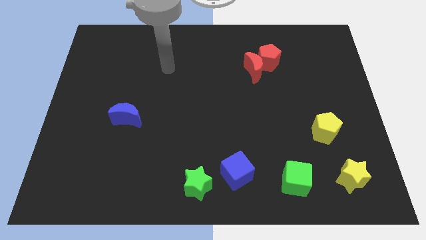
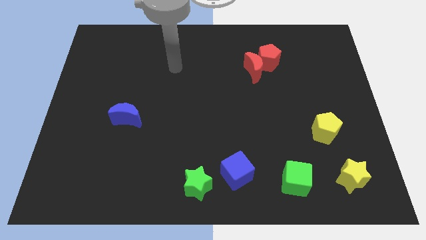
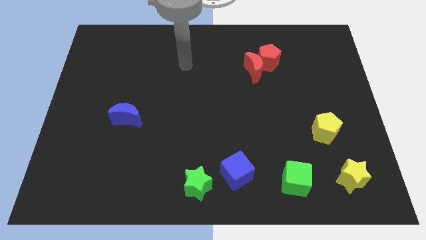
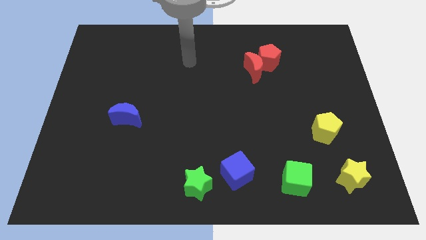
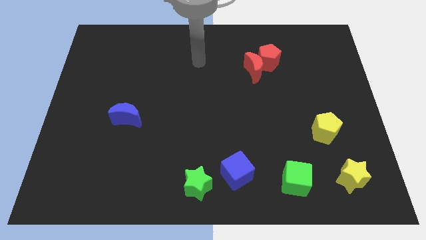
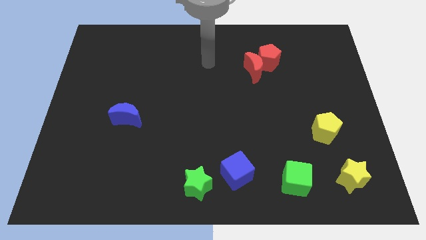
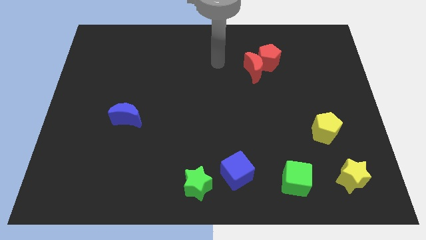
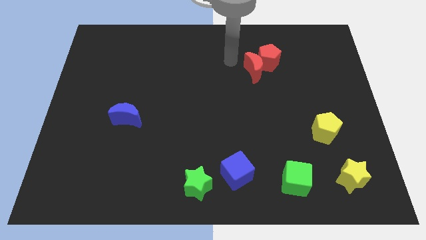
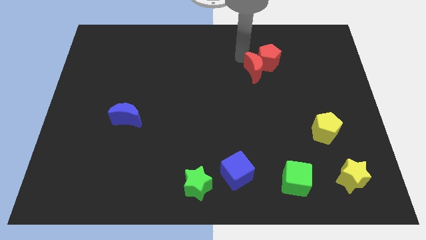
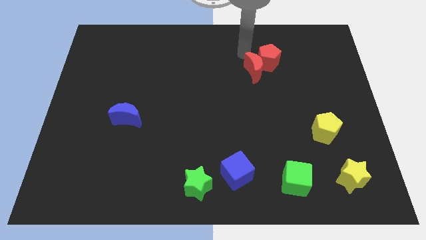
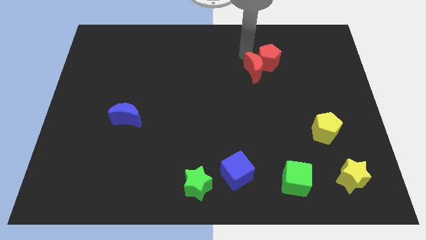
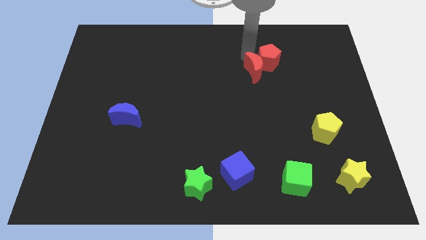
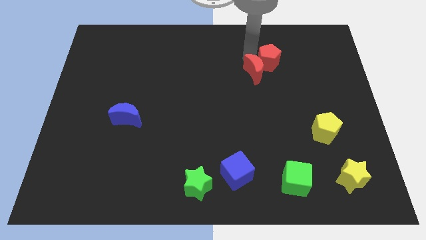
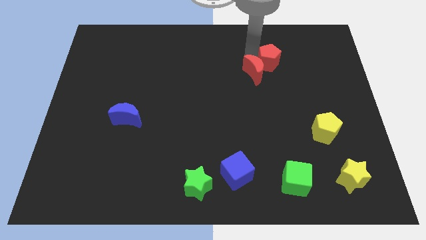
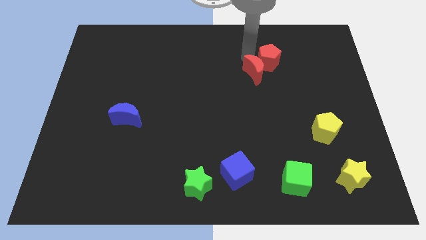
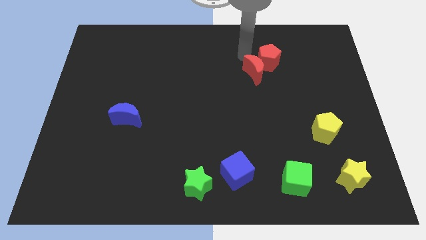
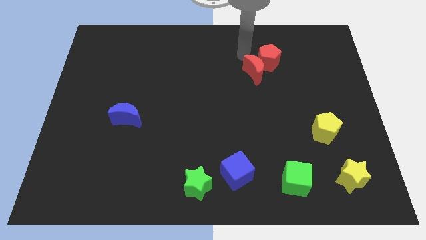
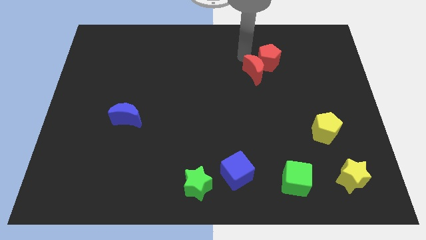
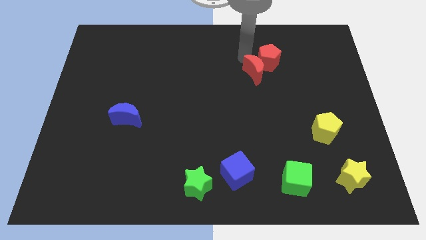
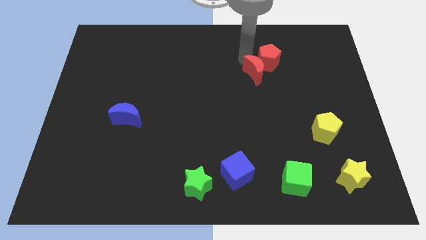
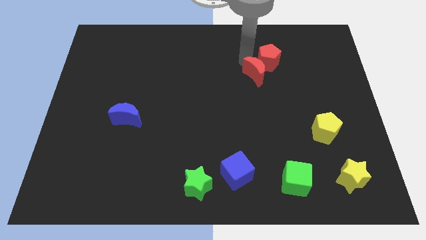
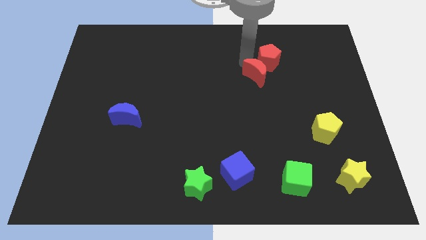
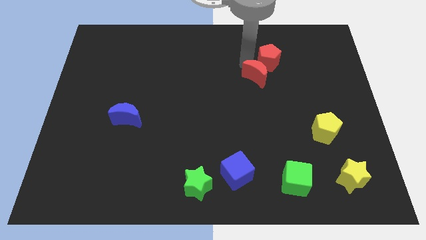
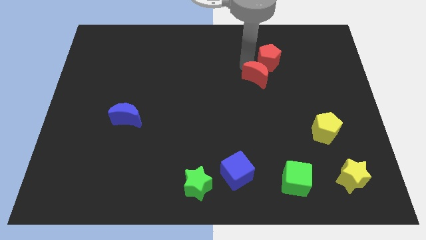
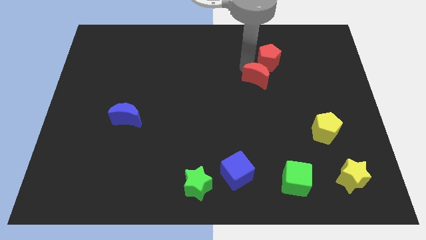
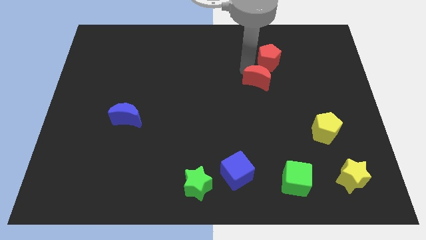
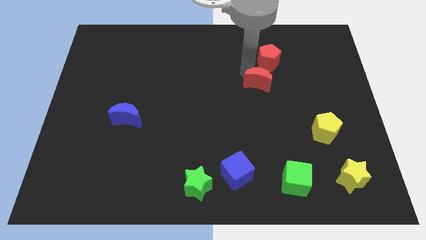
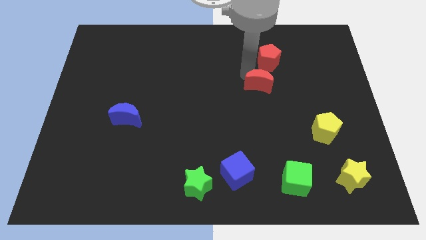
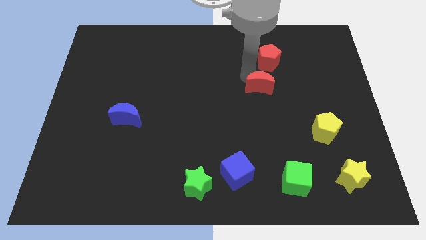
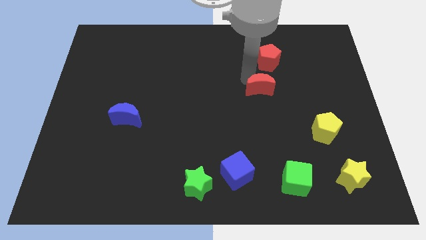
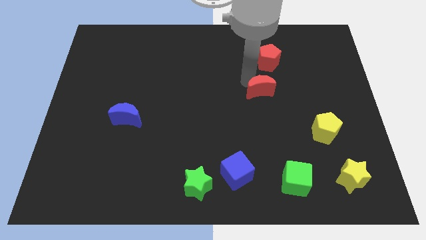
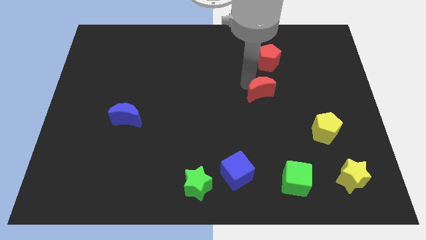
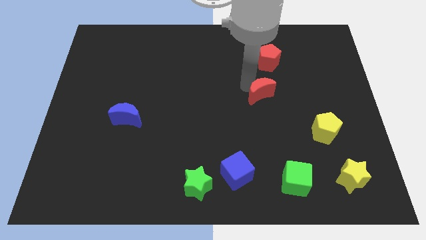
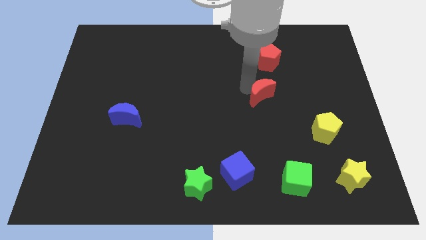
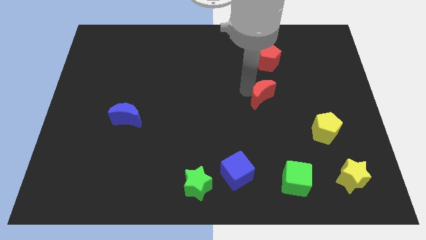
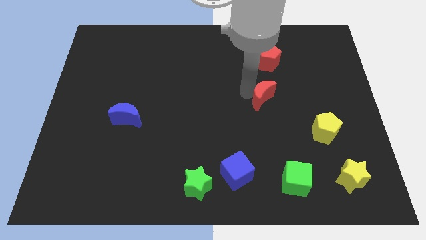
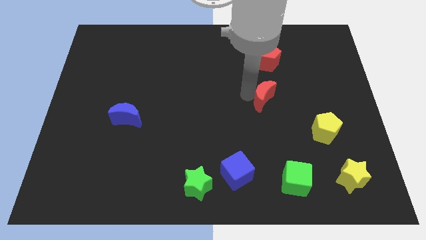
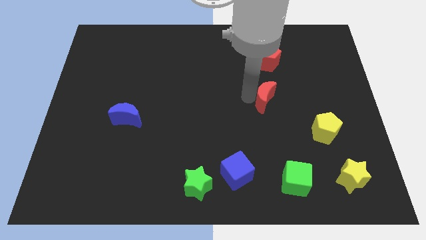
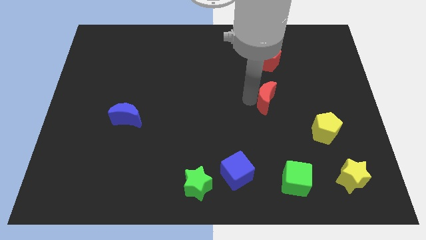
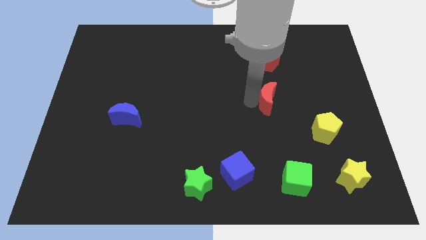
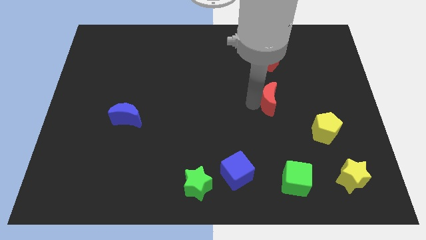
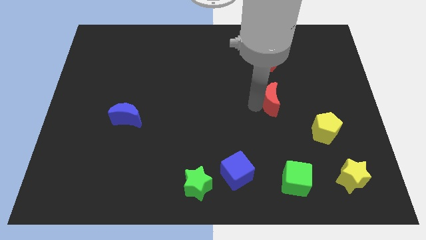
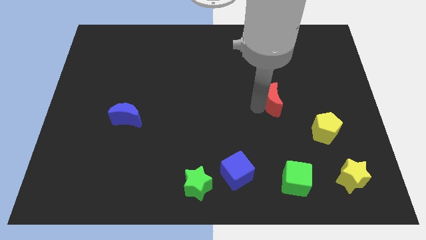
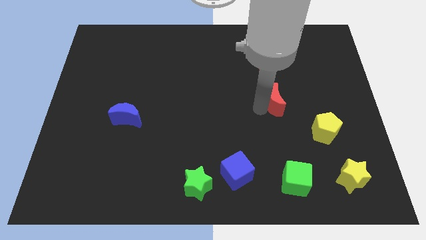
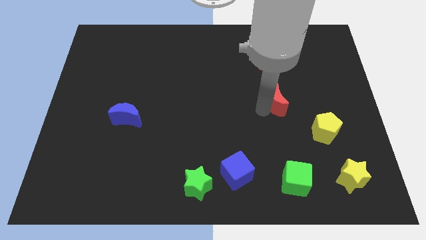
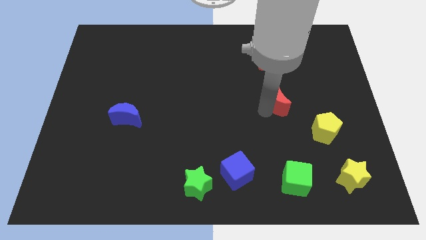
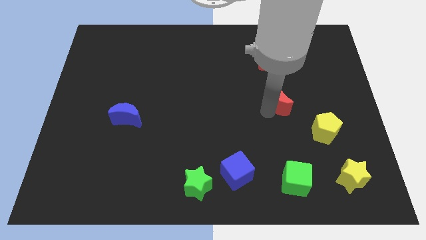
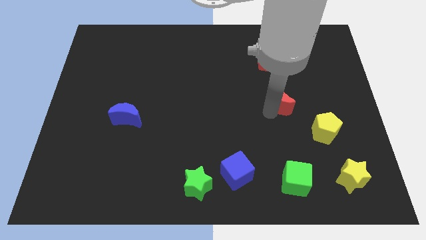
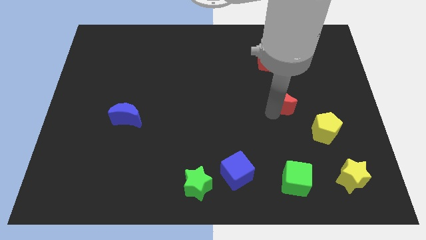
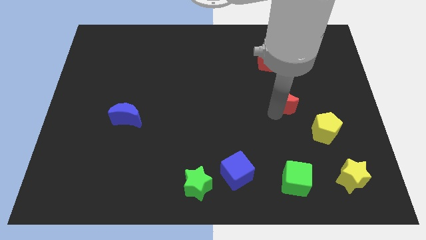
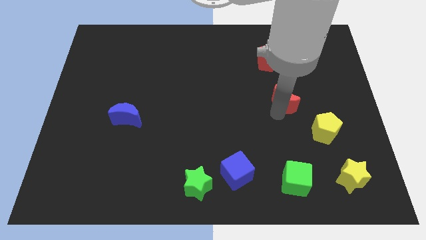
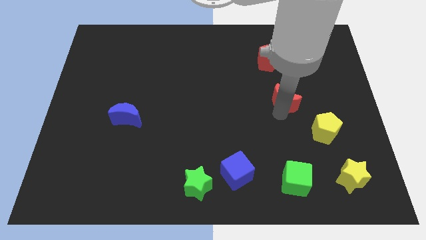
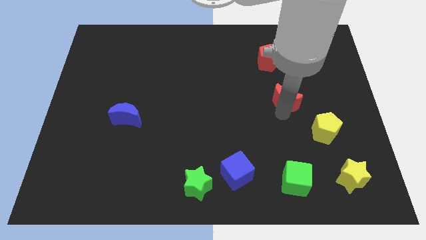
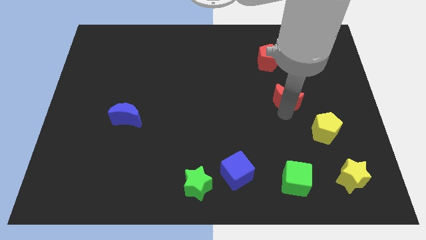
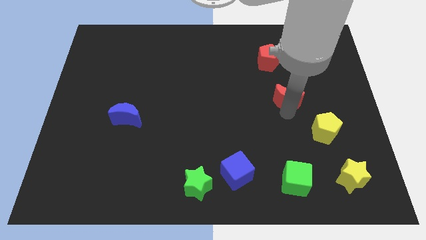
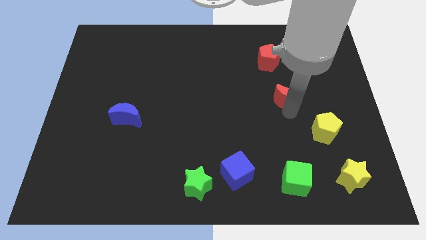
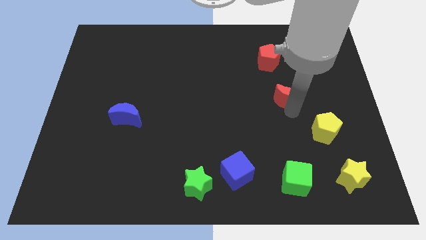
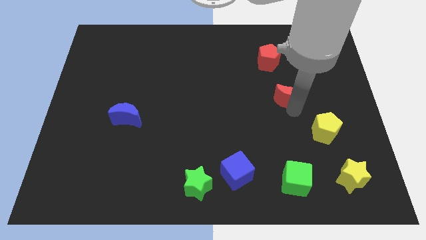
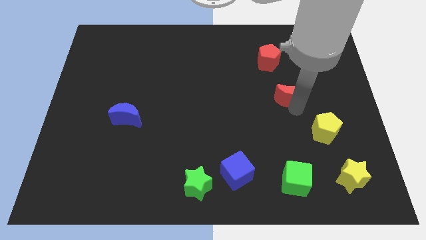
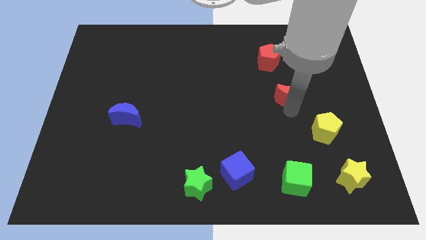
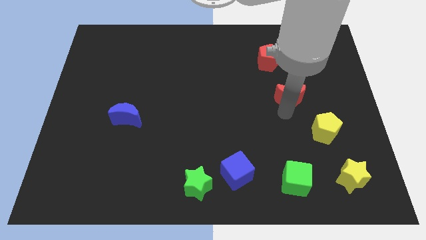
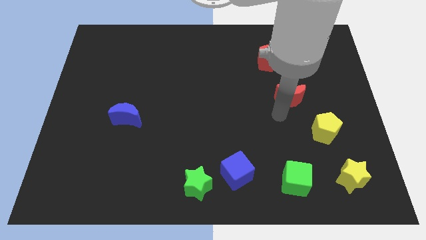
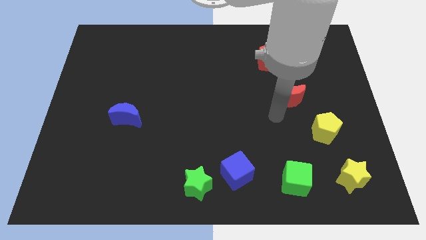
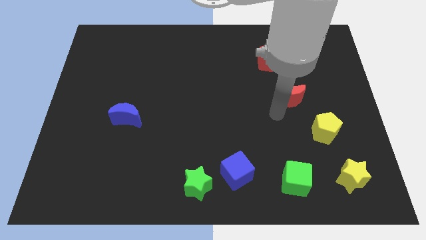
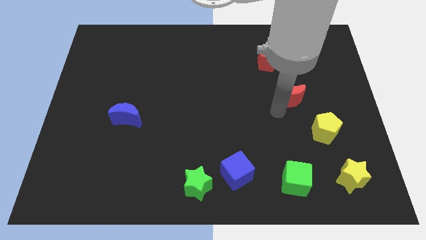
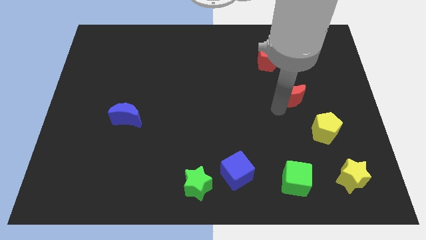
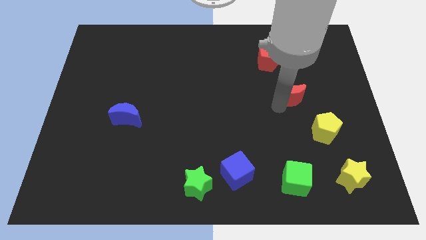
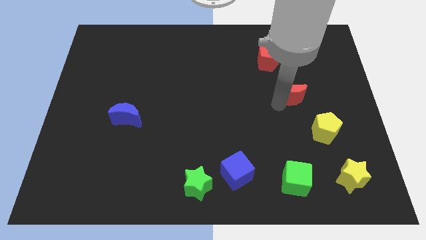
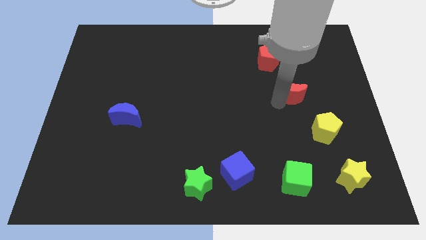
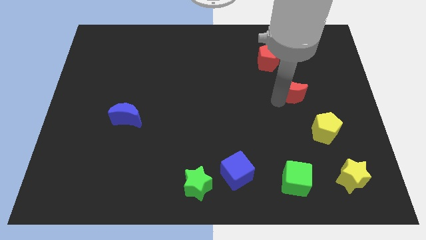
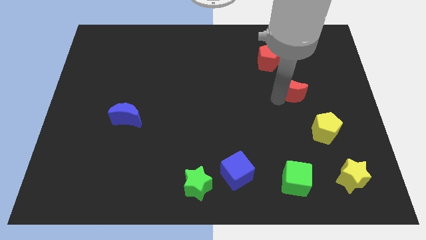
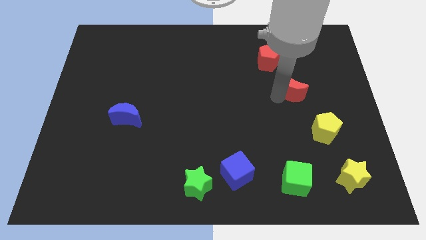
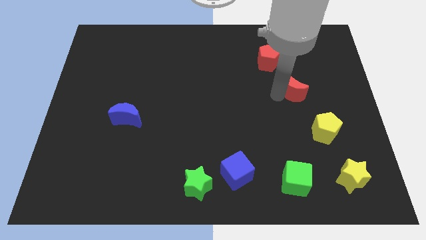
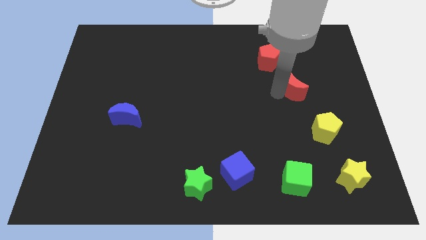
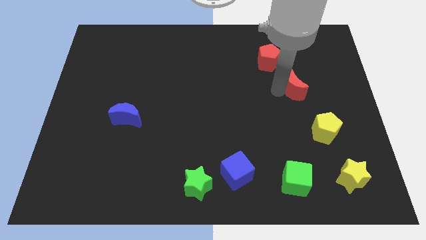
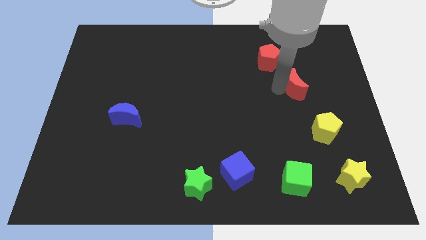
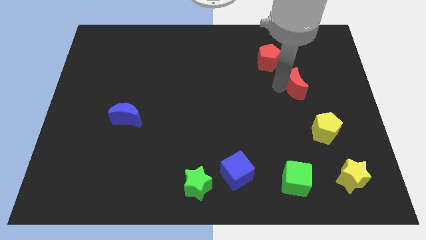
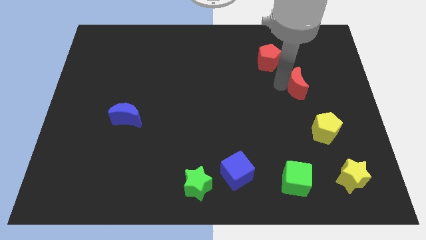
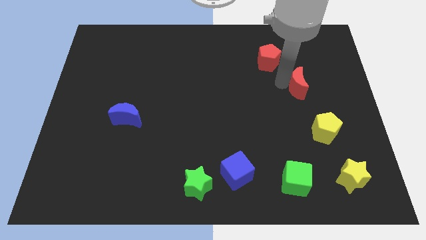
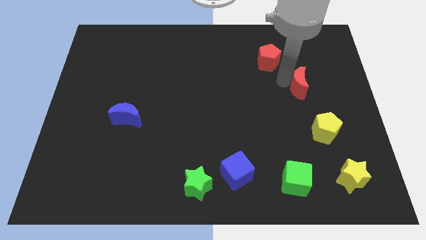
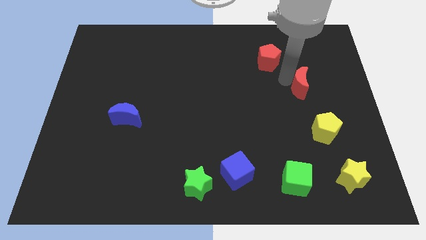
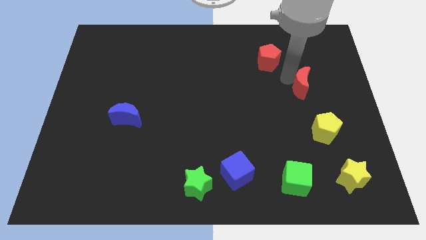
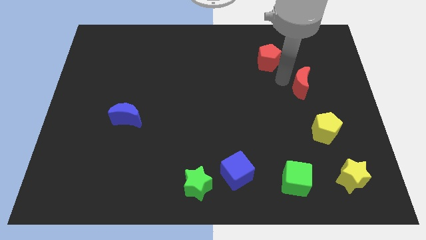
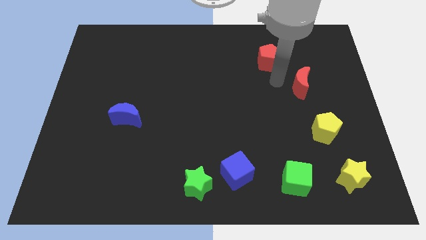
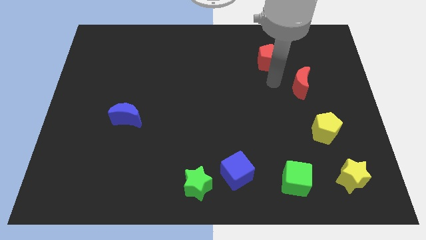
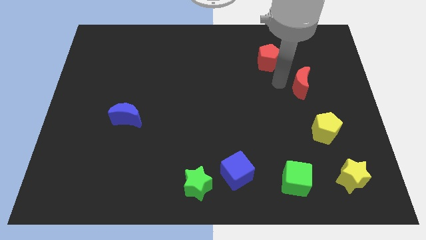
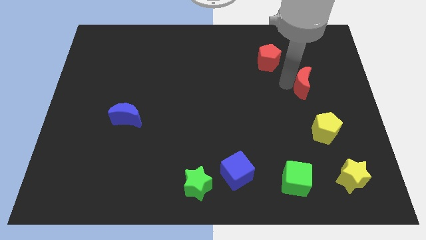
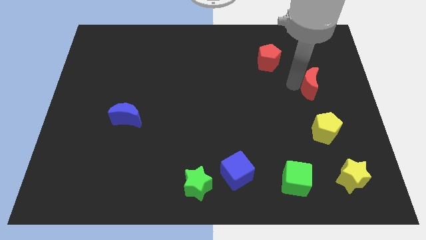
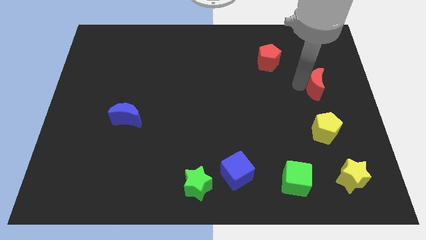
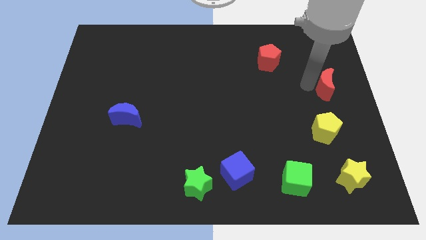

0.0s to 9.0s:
put the red moon to the right side
